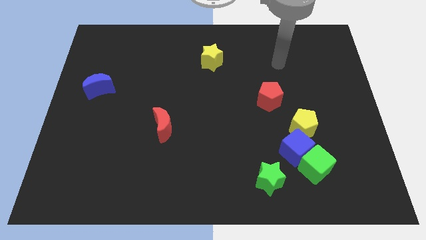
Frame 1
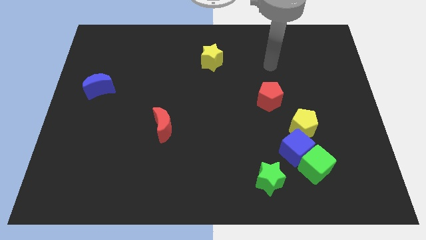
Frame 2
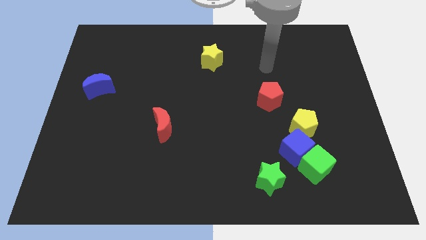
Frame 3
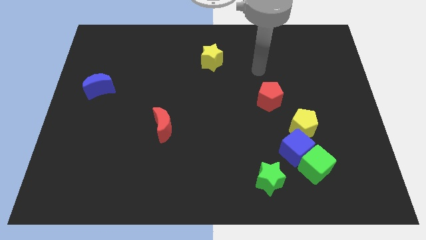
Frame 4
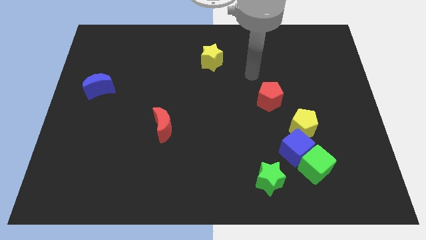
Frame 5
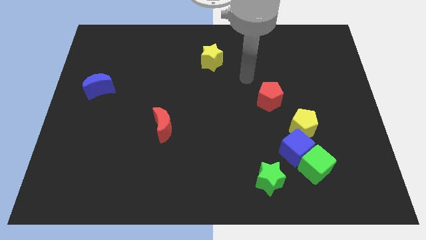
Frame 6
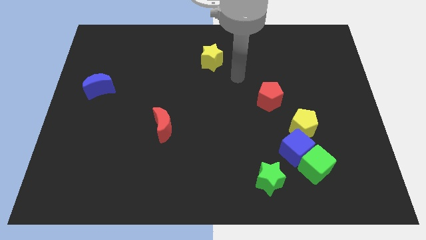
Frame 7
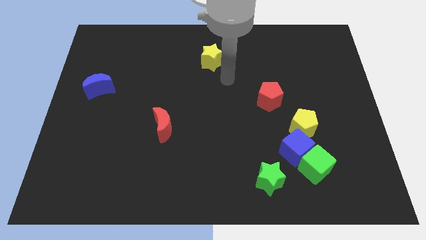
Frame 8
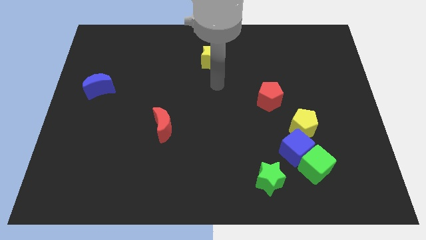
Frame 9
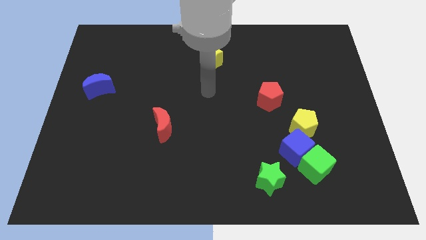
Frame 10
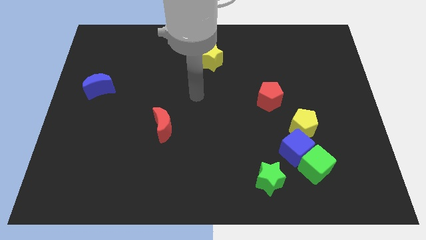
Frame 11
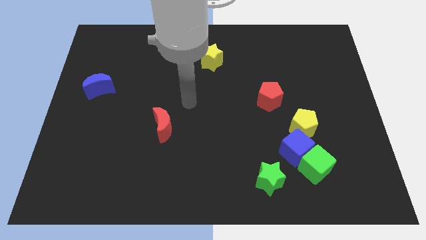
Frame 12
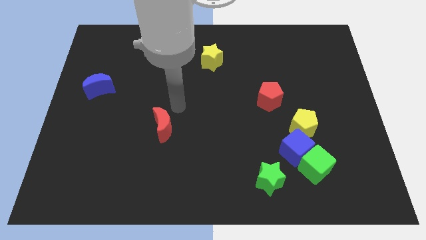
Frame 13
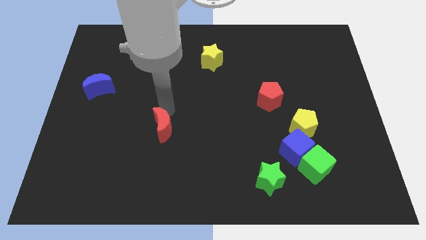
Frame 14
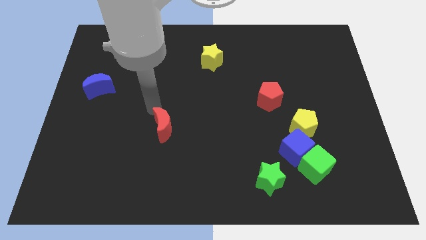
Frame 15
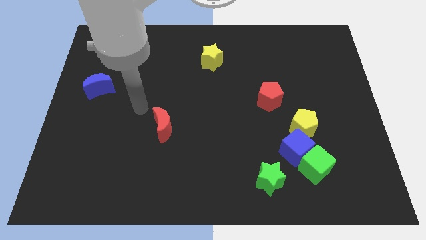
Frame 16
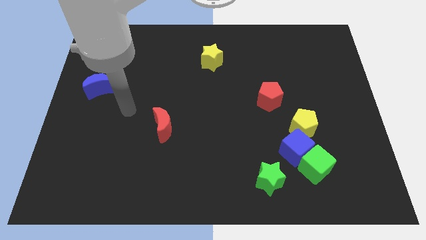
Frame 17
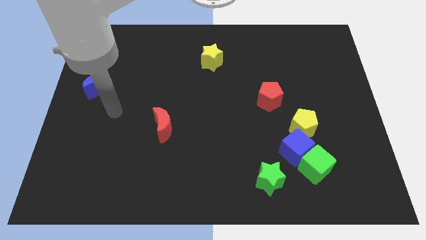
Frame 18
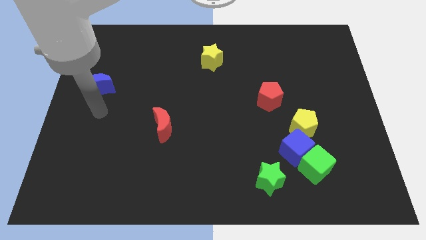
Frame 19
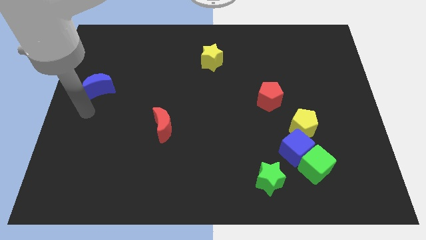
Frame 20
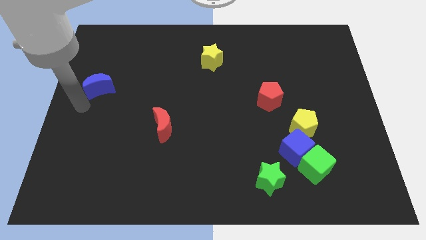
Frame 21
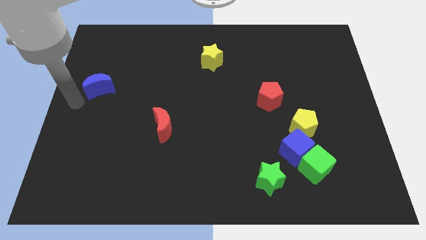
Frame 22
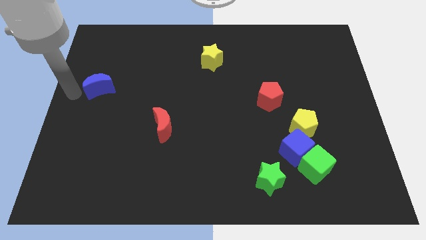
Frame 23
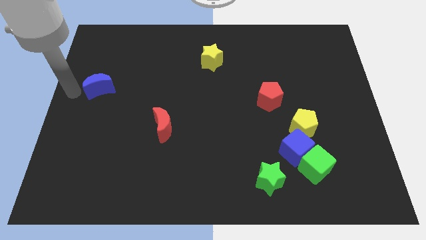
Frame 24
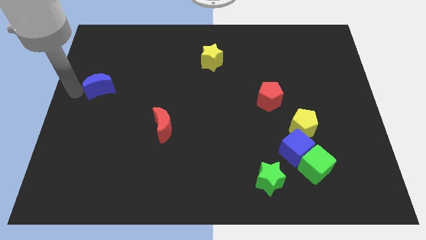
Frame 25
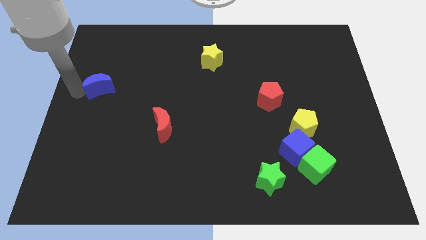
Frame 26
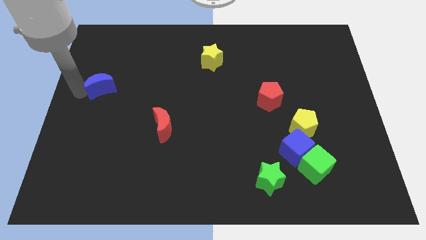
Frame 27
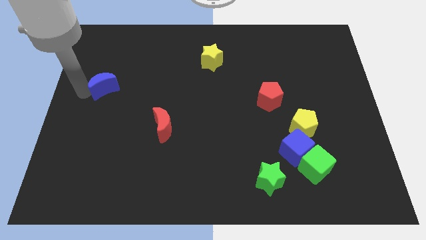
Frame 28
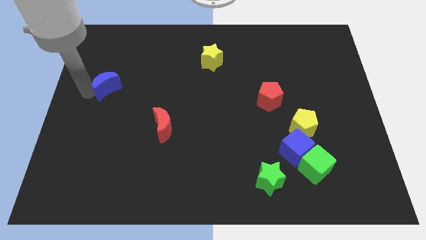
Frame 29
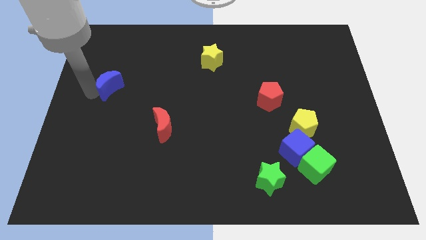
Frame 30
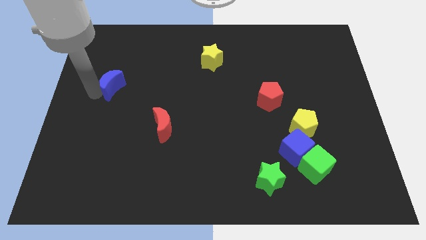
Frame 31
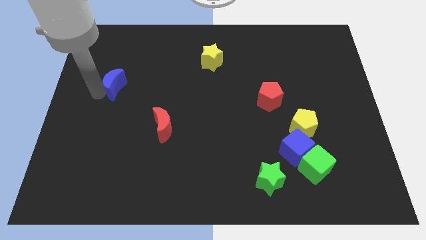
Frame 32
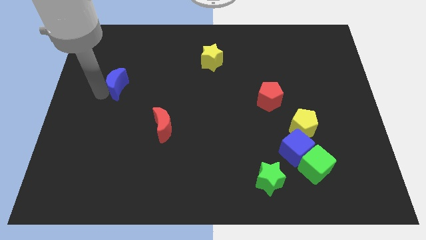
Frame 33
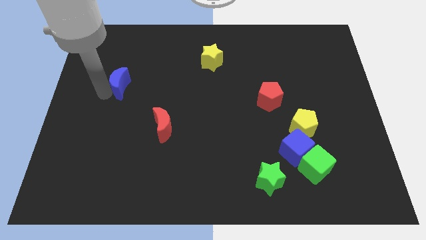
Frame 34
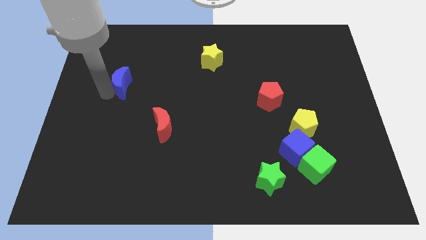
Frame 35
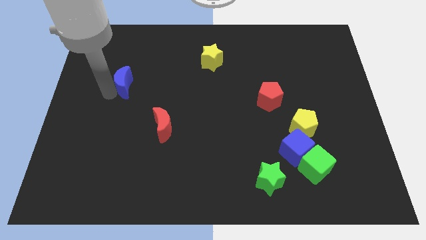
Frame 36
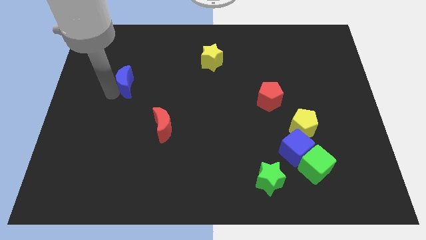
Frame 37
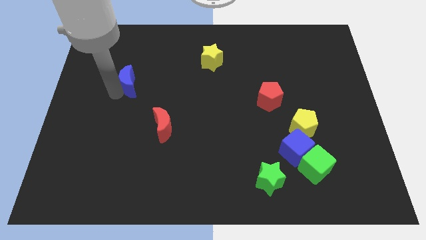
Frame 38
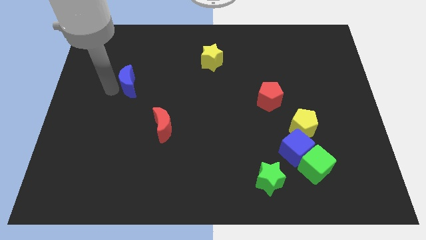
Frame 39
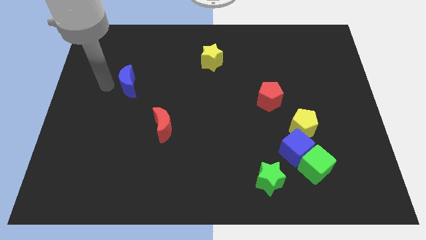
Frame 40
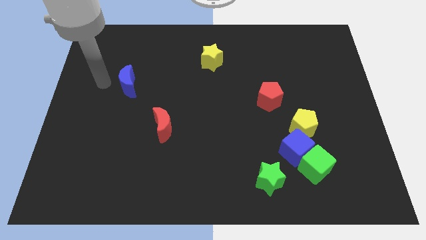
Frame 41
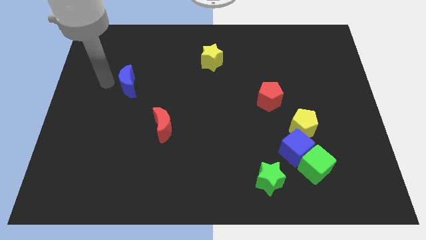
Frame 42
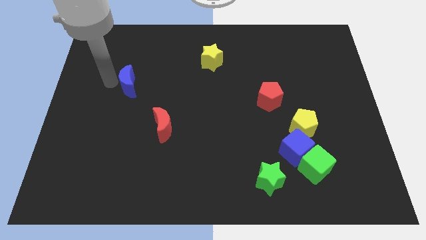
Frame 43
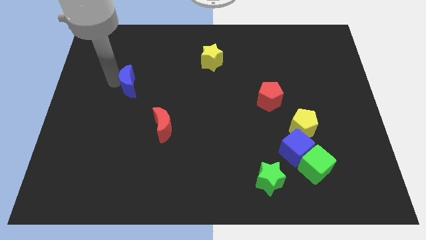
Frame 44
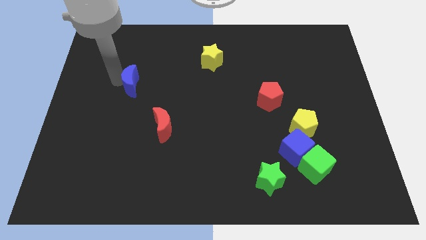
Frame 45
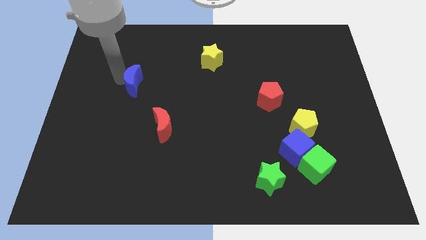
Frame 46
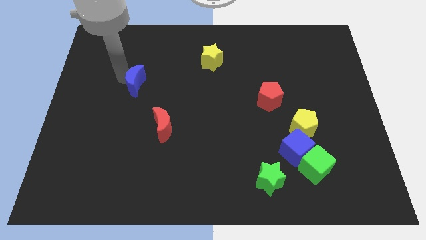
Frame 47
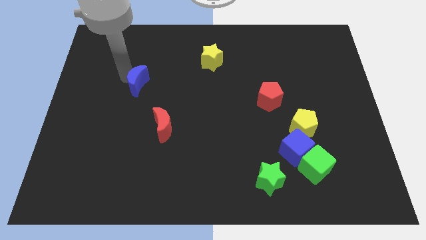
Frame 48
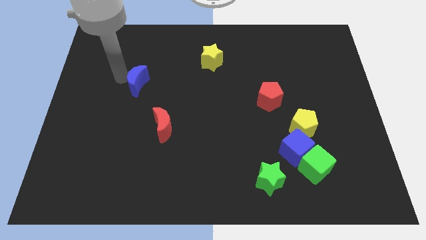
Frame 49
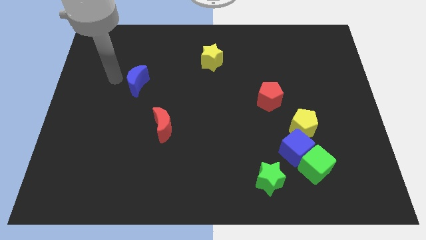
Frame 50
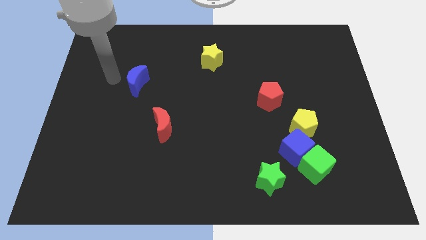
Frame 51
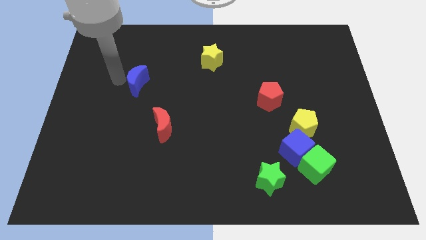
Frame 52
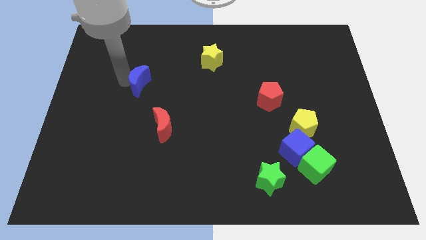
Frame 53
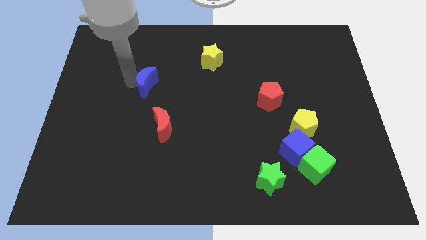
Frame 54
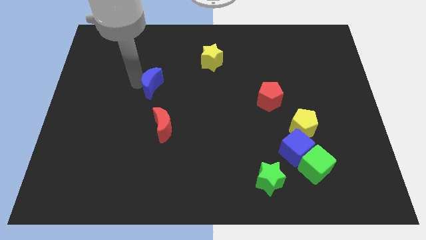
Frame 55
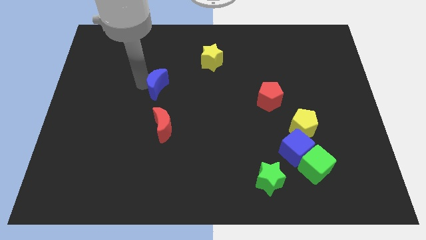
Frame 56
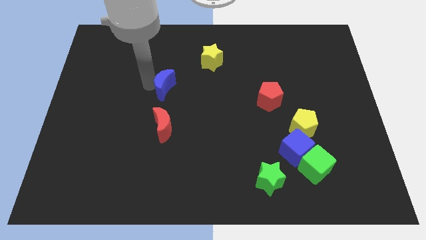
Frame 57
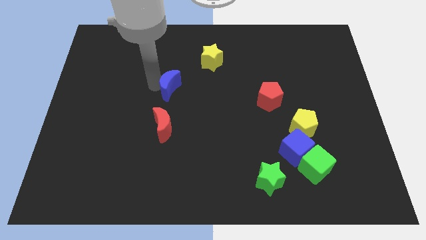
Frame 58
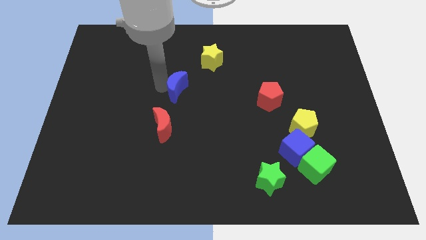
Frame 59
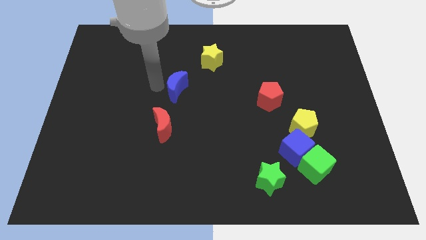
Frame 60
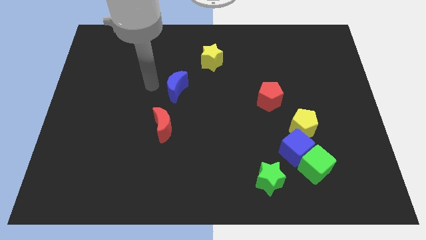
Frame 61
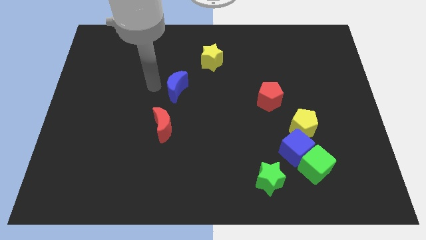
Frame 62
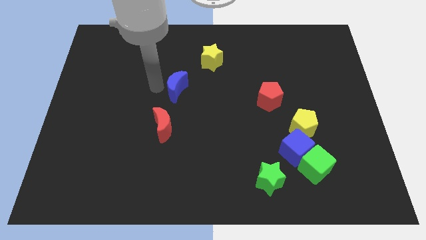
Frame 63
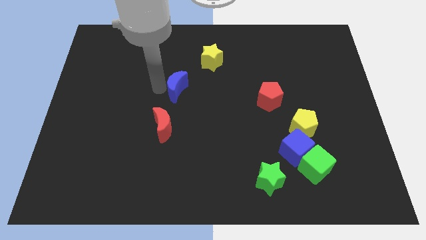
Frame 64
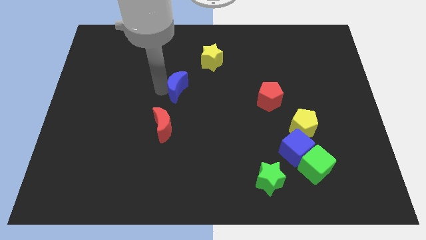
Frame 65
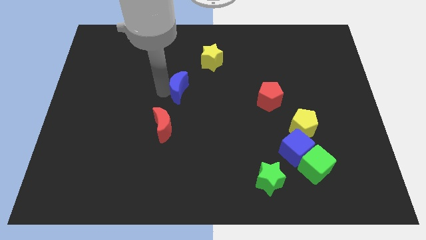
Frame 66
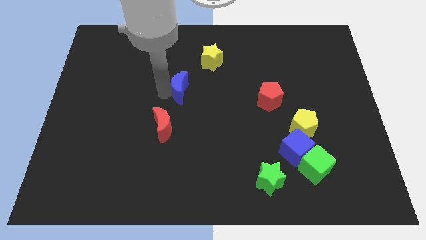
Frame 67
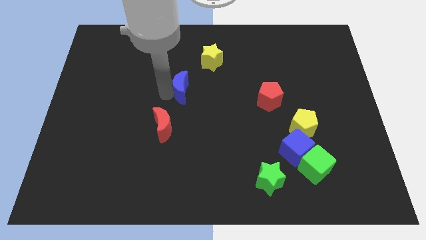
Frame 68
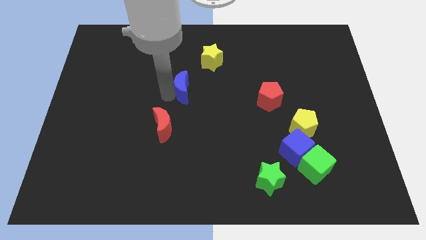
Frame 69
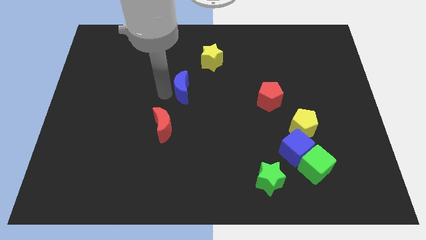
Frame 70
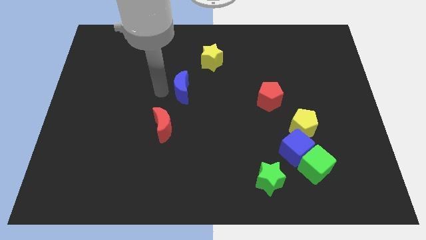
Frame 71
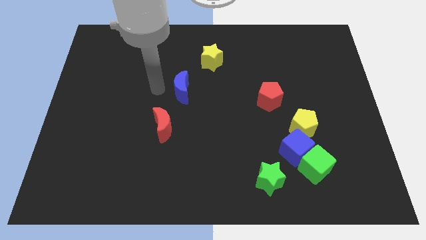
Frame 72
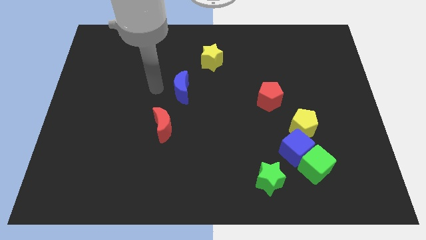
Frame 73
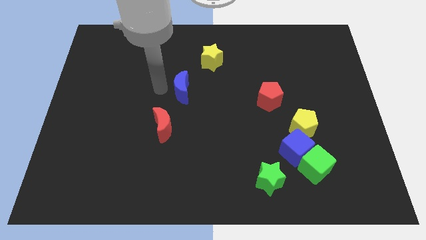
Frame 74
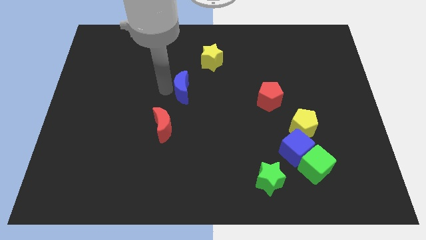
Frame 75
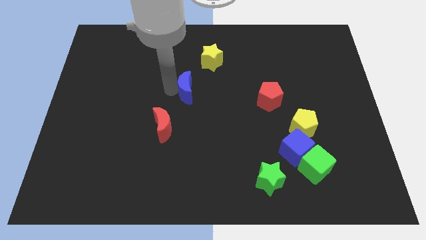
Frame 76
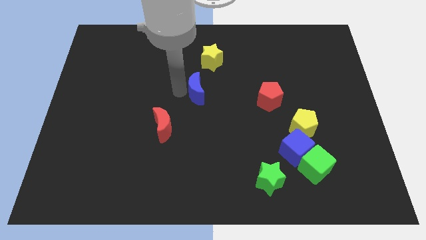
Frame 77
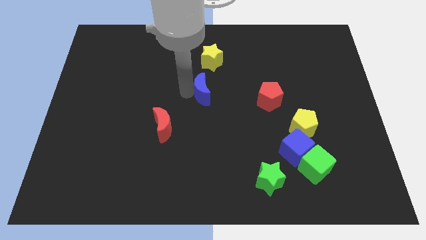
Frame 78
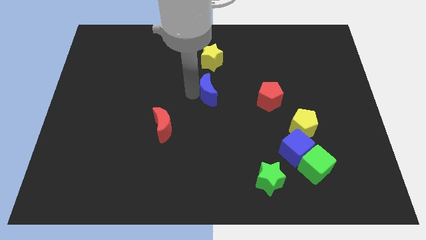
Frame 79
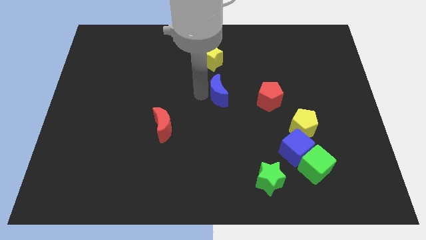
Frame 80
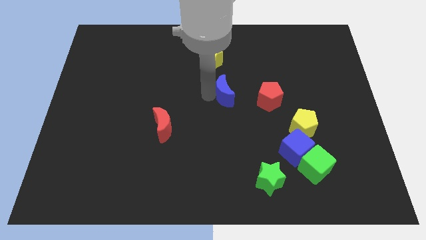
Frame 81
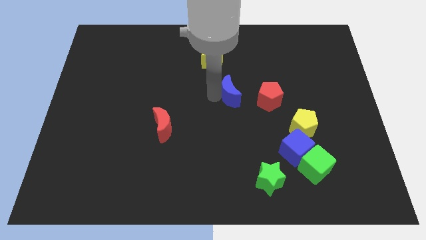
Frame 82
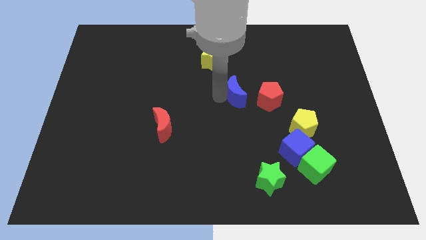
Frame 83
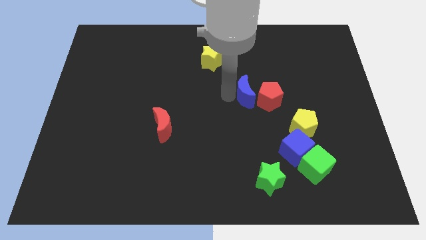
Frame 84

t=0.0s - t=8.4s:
slide the blue moon to the red pentagon
